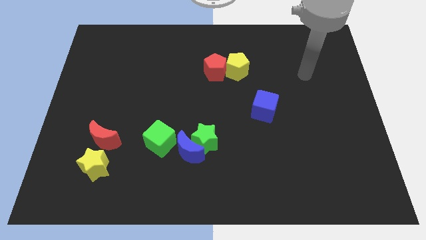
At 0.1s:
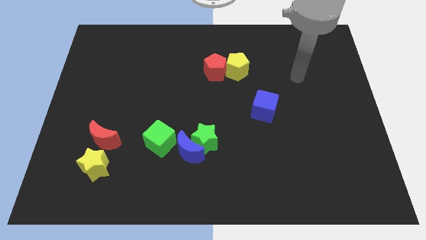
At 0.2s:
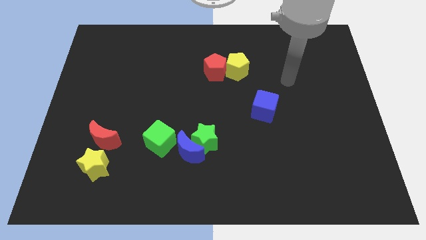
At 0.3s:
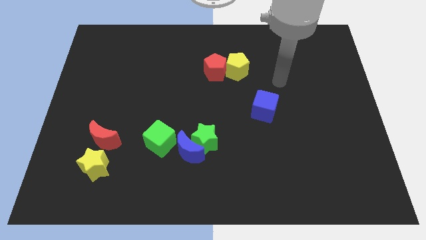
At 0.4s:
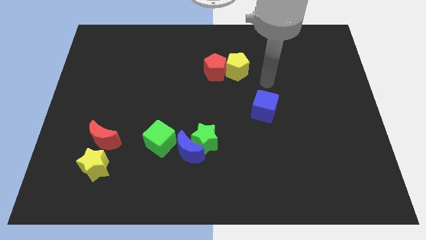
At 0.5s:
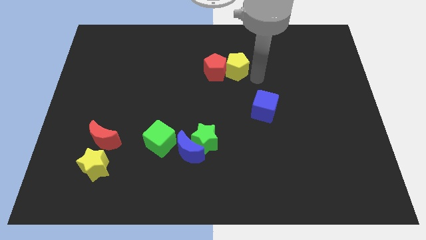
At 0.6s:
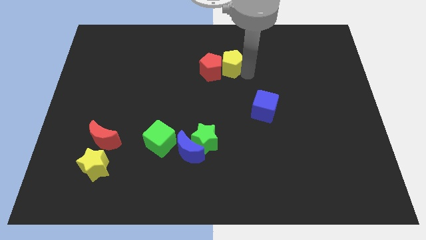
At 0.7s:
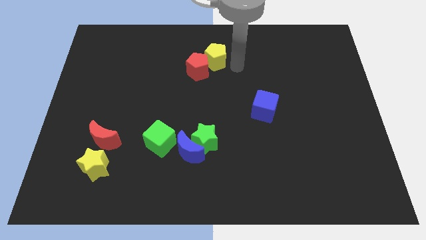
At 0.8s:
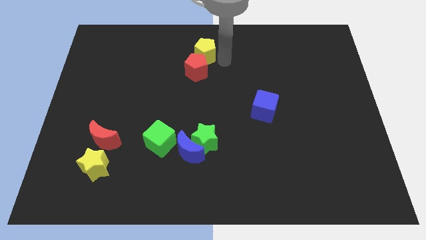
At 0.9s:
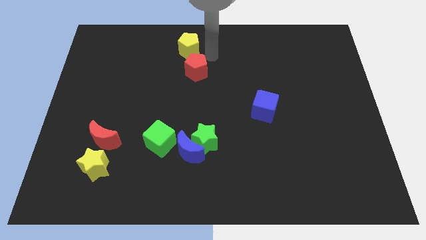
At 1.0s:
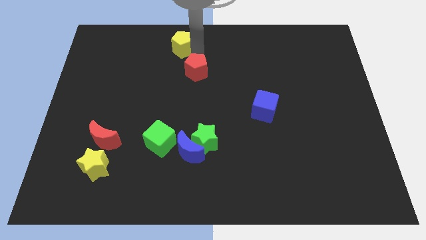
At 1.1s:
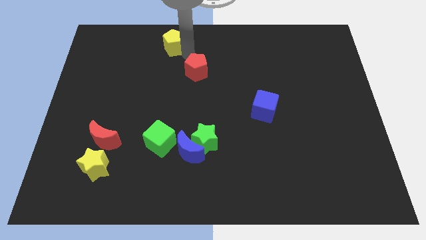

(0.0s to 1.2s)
pull the red pentagon apart from the yellow pentagon

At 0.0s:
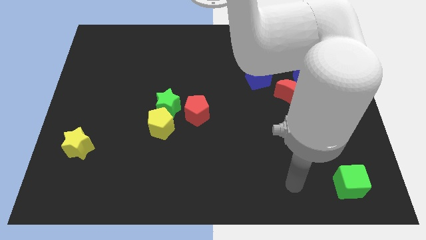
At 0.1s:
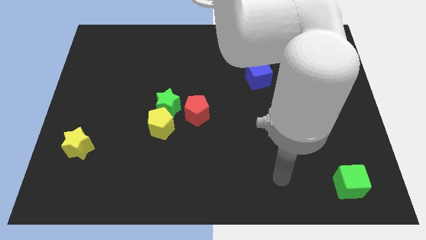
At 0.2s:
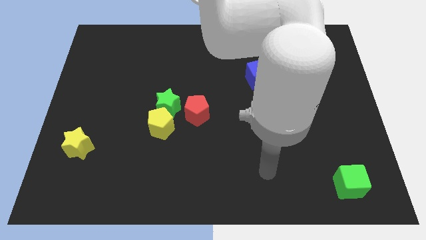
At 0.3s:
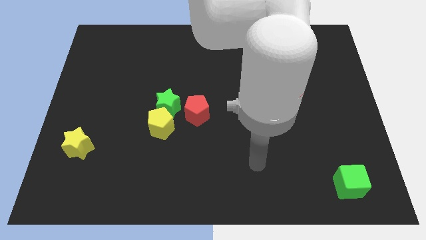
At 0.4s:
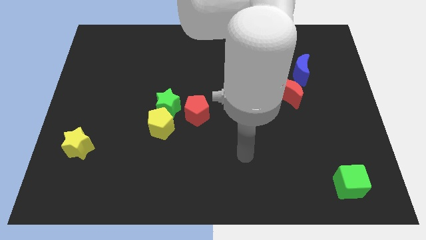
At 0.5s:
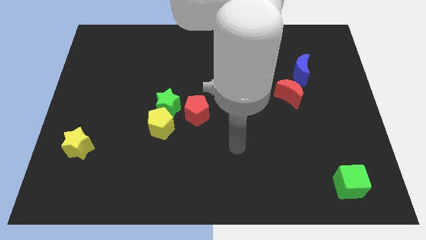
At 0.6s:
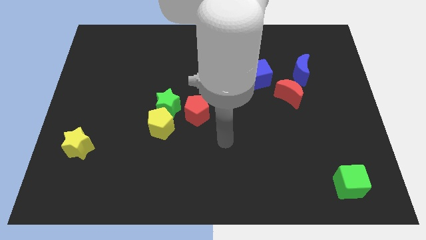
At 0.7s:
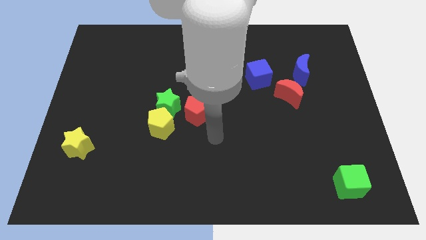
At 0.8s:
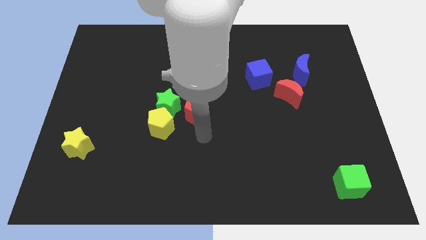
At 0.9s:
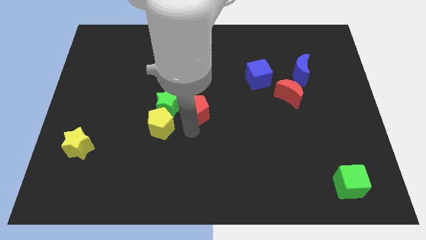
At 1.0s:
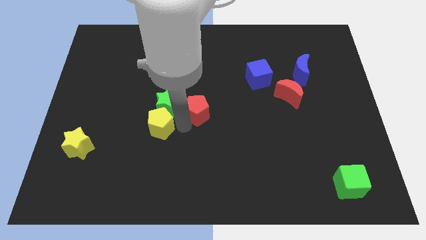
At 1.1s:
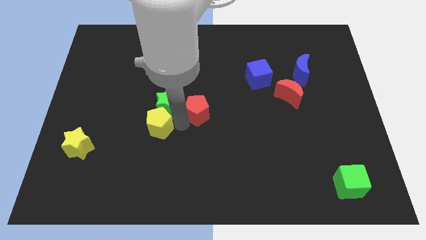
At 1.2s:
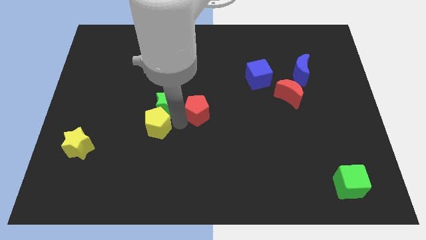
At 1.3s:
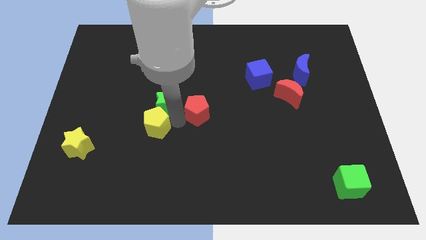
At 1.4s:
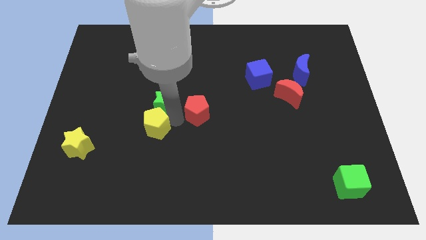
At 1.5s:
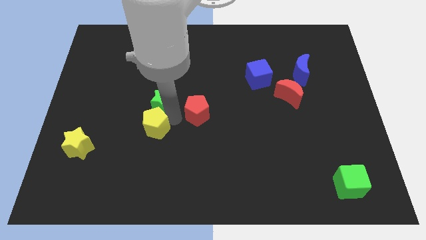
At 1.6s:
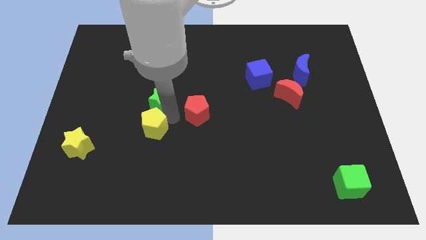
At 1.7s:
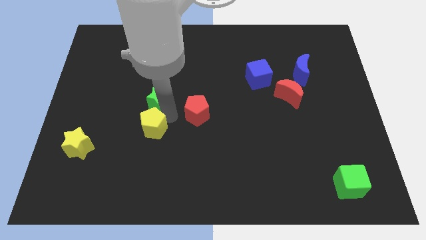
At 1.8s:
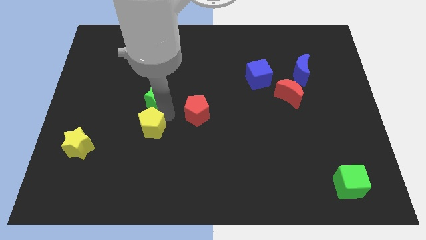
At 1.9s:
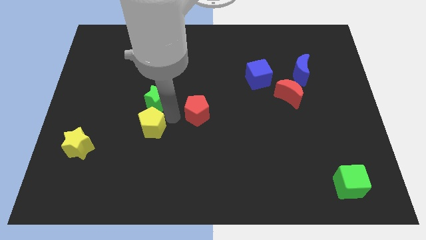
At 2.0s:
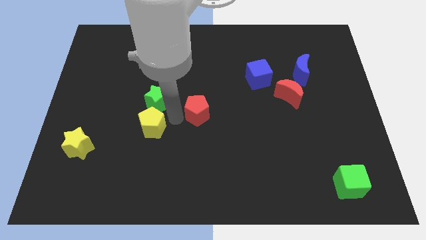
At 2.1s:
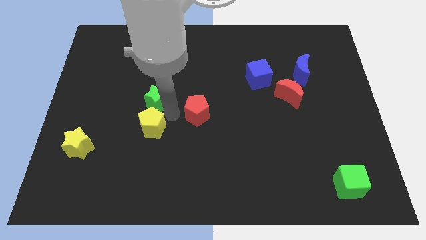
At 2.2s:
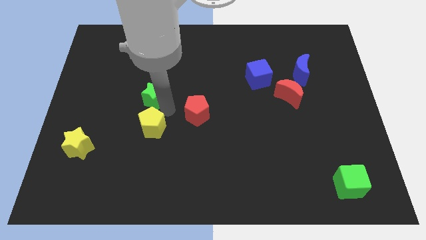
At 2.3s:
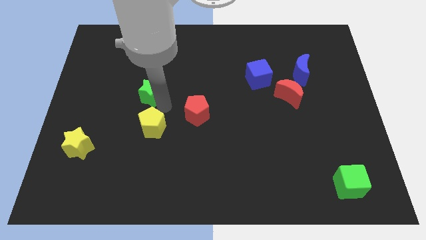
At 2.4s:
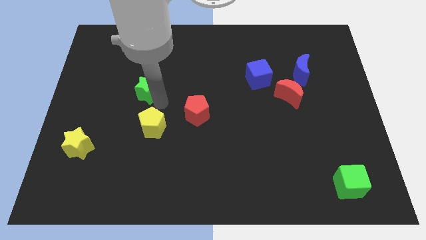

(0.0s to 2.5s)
pull the green star apart from the yellow pentagon and red pentagon

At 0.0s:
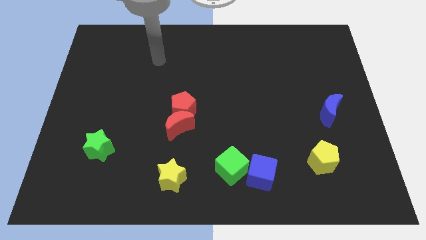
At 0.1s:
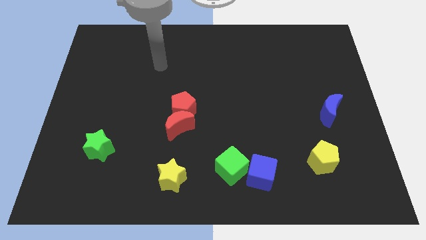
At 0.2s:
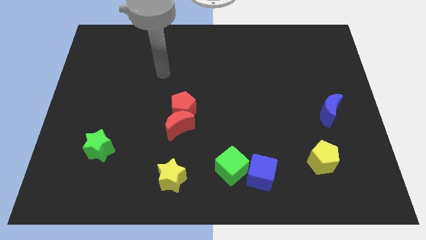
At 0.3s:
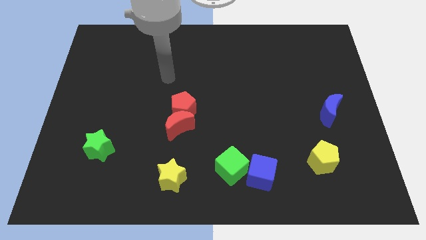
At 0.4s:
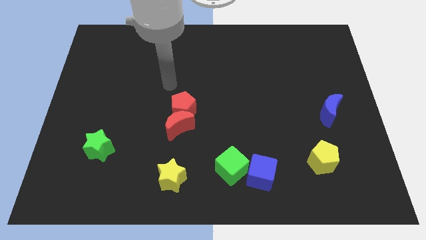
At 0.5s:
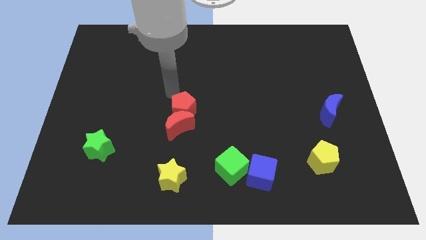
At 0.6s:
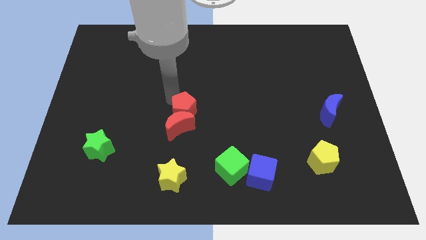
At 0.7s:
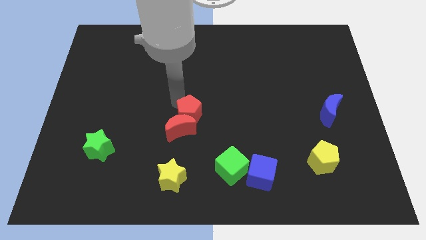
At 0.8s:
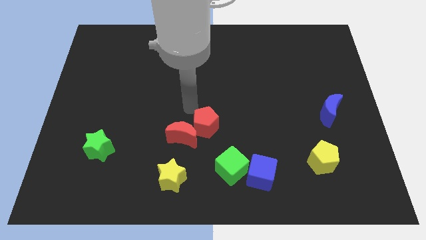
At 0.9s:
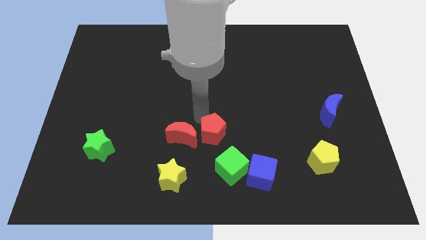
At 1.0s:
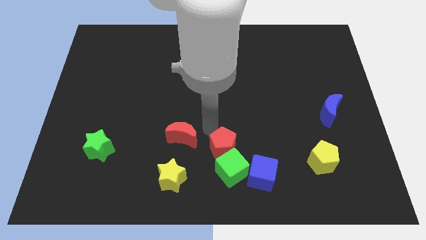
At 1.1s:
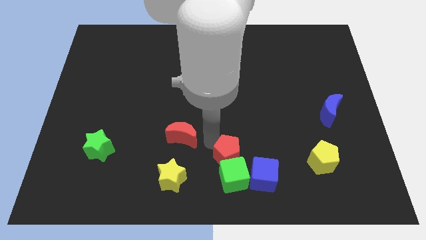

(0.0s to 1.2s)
pull the red moon apart from the red pentagon

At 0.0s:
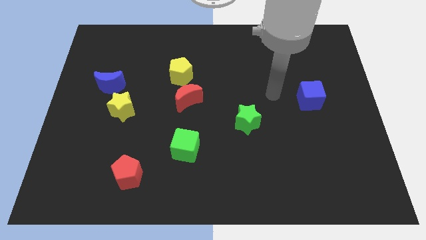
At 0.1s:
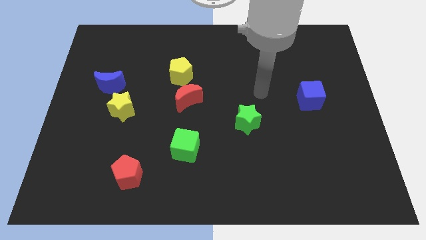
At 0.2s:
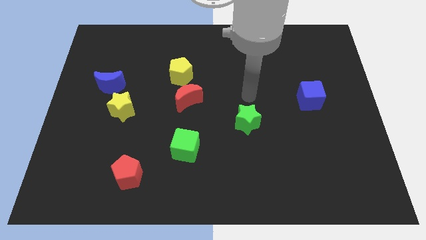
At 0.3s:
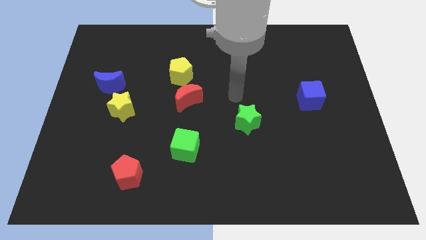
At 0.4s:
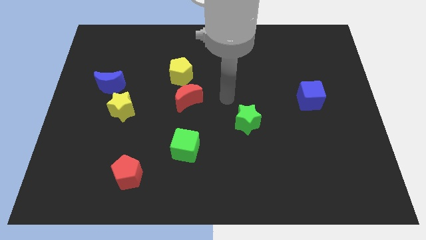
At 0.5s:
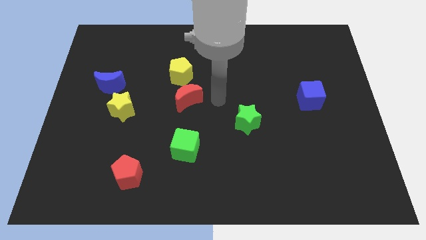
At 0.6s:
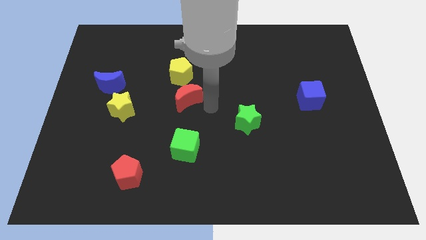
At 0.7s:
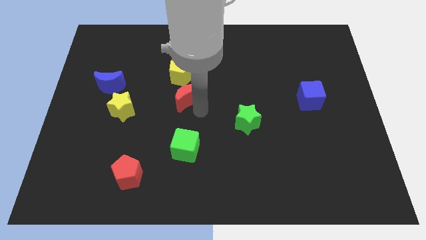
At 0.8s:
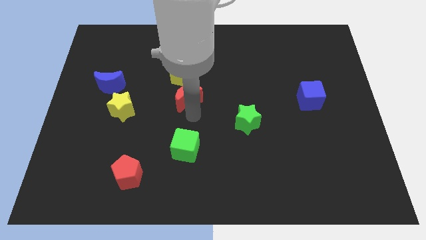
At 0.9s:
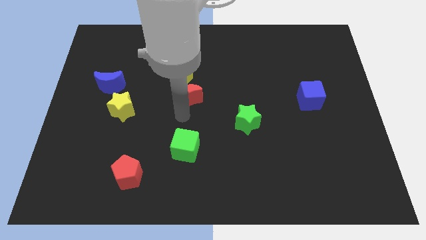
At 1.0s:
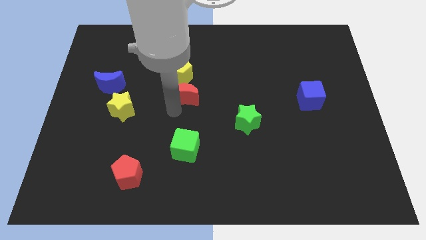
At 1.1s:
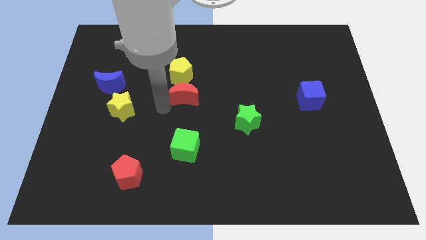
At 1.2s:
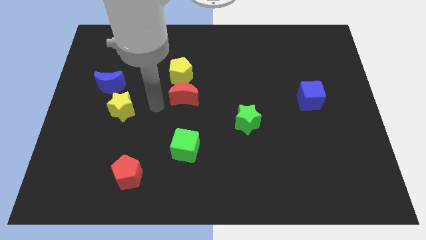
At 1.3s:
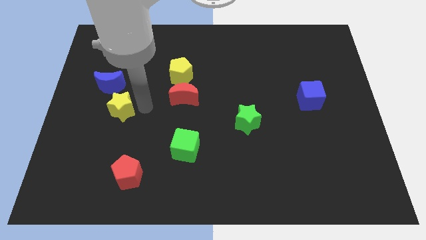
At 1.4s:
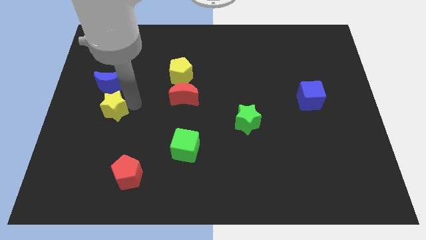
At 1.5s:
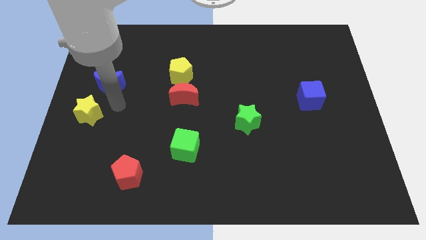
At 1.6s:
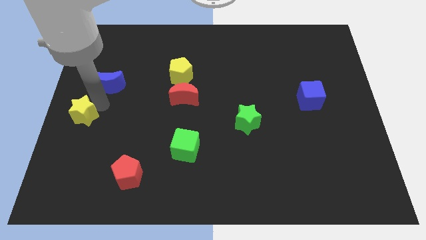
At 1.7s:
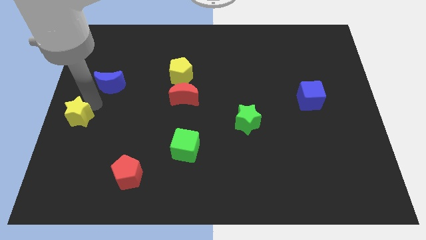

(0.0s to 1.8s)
move the blue moon away from the yellow star

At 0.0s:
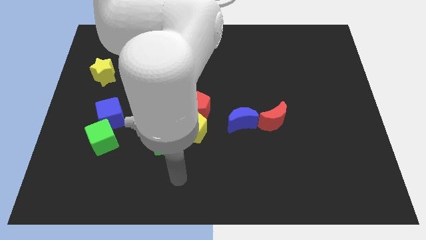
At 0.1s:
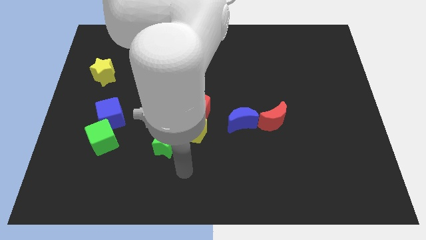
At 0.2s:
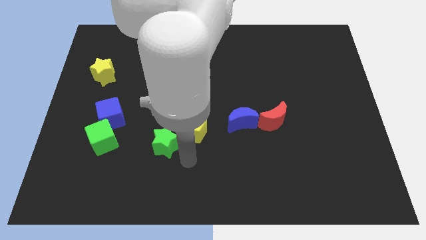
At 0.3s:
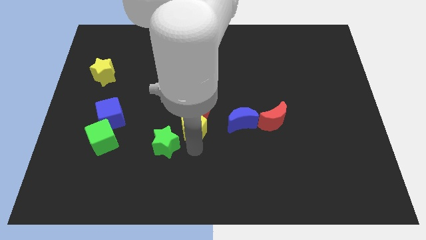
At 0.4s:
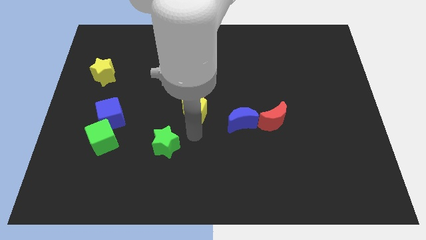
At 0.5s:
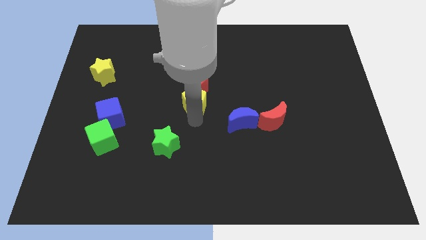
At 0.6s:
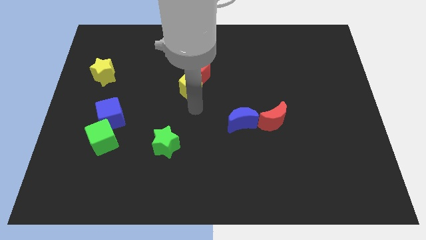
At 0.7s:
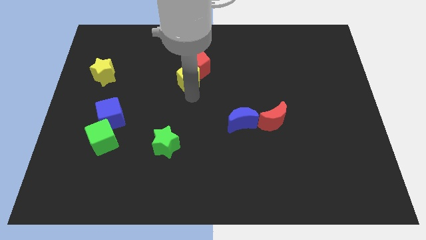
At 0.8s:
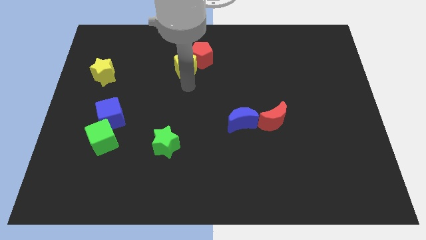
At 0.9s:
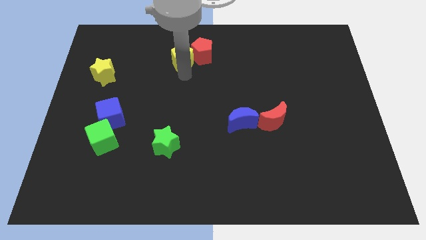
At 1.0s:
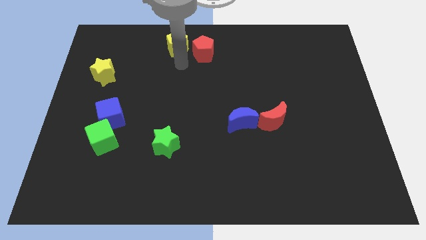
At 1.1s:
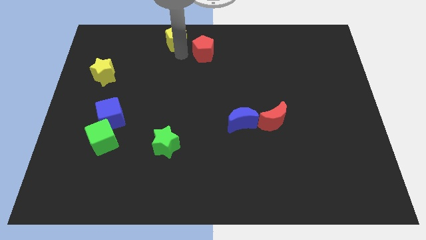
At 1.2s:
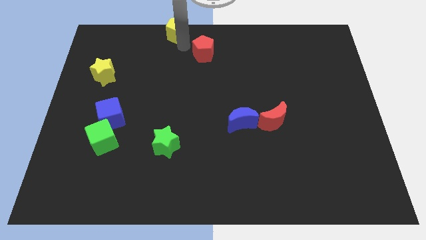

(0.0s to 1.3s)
separate the red pentagon from the yellow pentagon

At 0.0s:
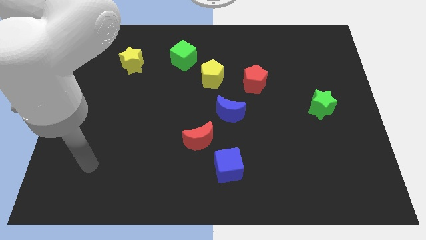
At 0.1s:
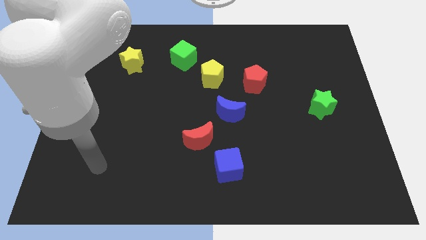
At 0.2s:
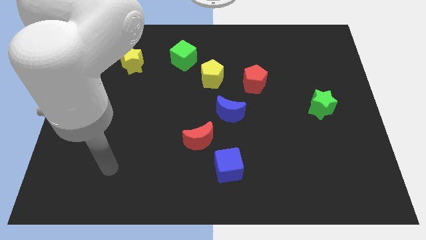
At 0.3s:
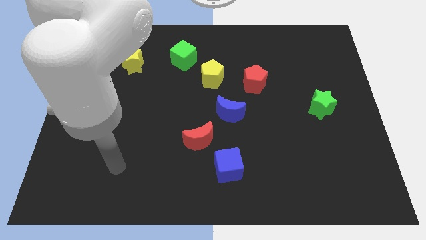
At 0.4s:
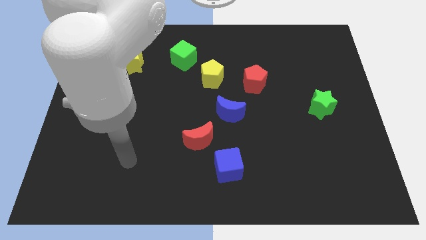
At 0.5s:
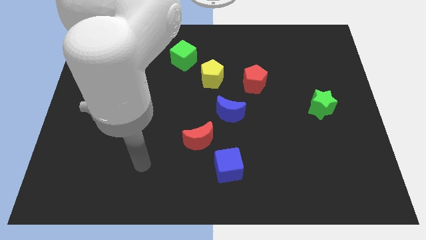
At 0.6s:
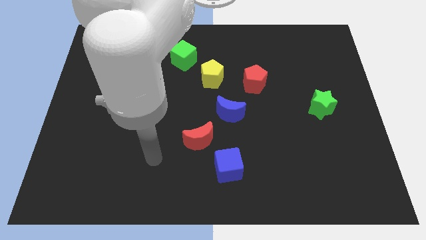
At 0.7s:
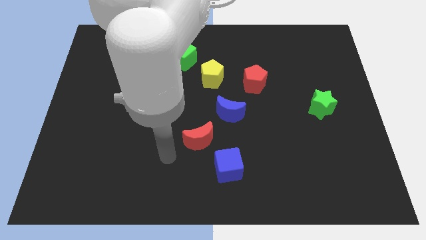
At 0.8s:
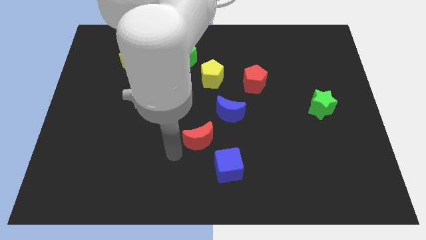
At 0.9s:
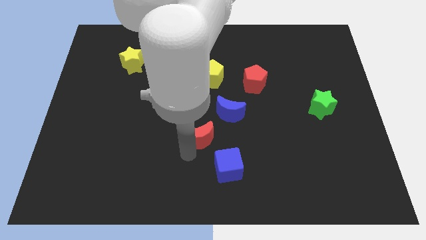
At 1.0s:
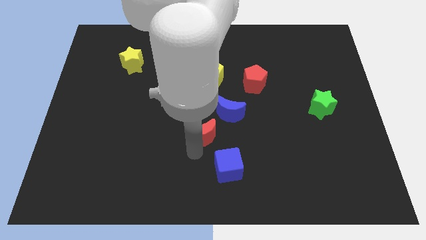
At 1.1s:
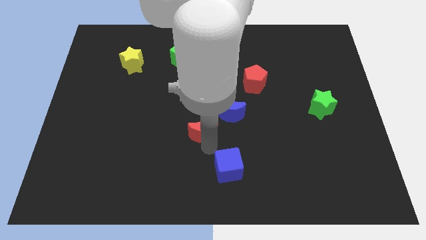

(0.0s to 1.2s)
pull the blue cube apart from the red moon
